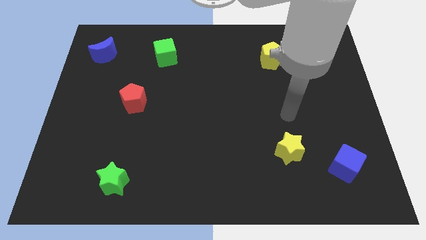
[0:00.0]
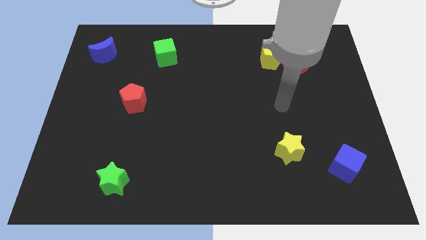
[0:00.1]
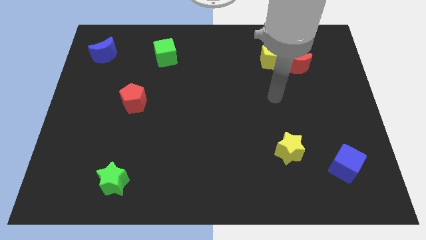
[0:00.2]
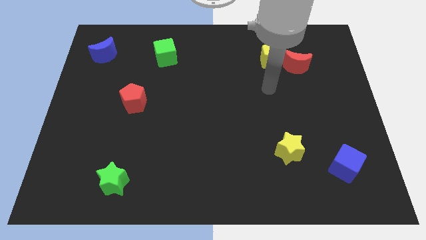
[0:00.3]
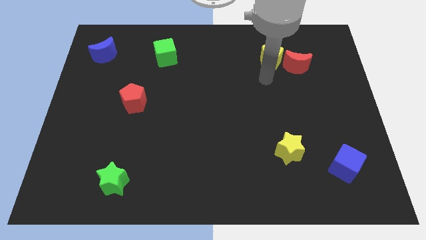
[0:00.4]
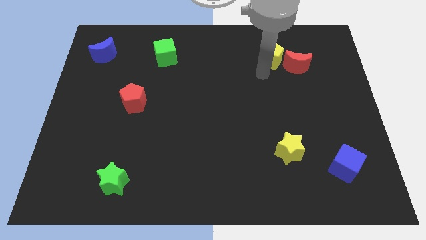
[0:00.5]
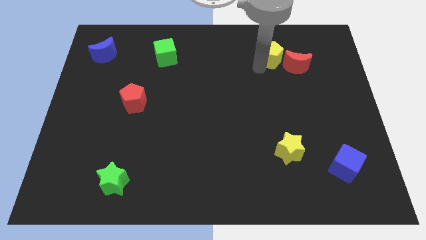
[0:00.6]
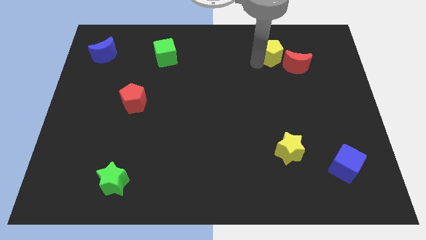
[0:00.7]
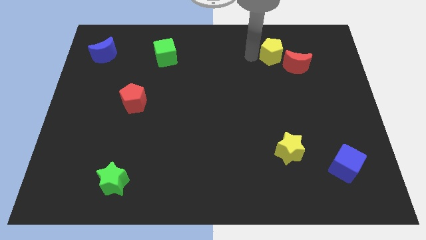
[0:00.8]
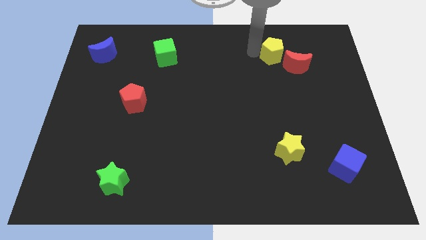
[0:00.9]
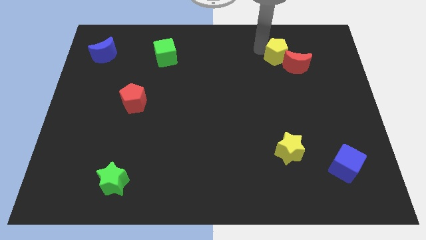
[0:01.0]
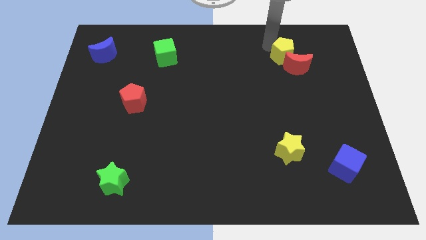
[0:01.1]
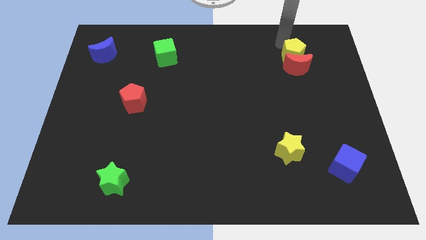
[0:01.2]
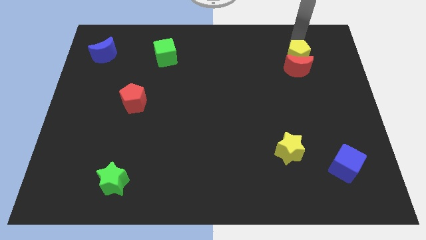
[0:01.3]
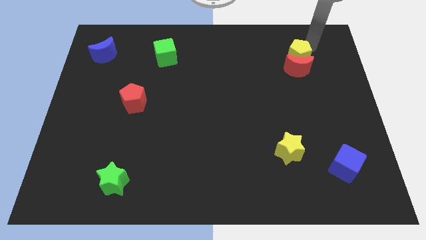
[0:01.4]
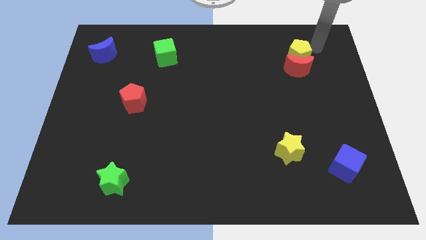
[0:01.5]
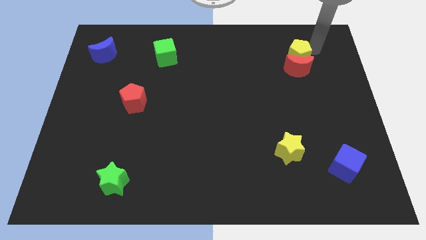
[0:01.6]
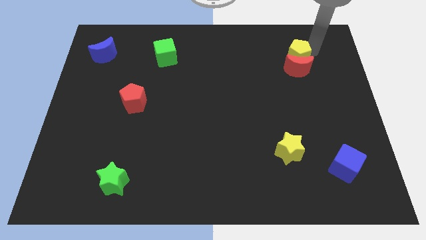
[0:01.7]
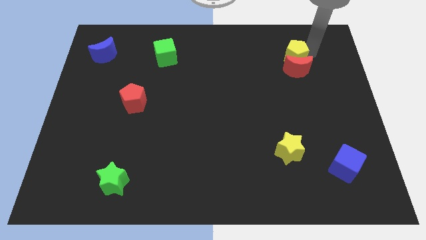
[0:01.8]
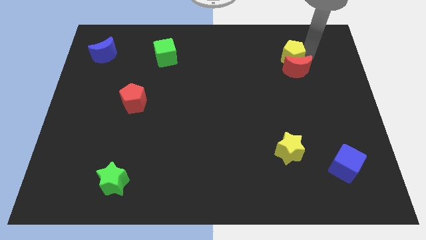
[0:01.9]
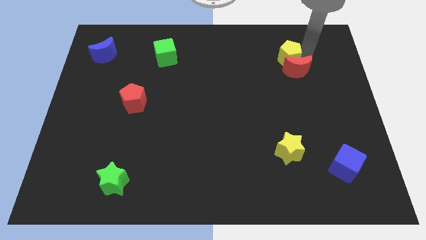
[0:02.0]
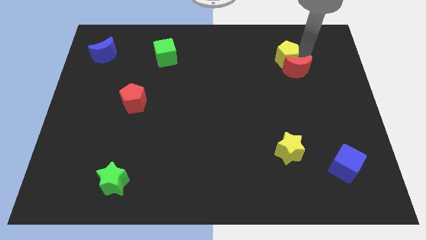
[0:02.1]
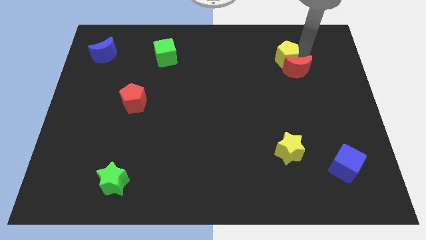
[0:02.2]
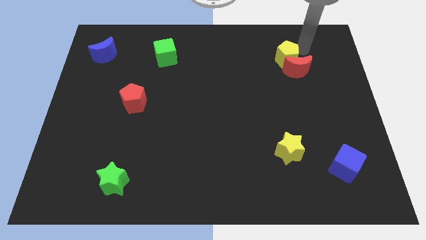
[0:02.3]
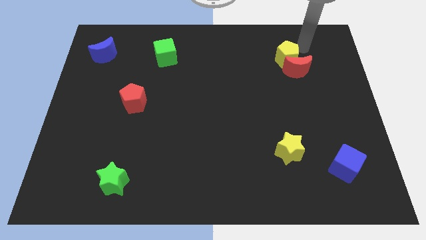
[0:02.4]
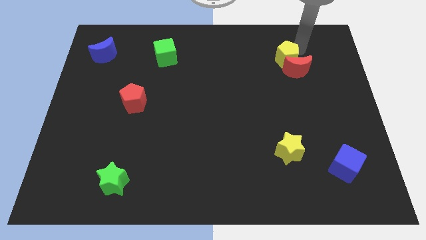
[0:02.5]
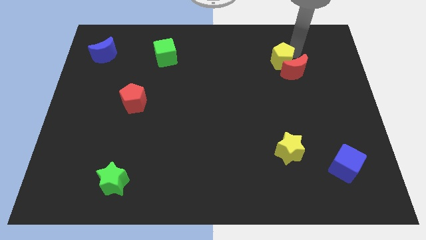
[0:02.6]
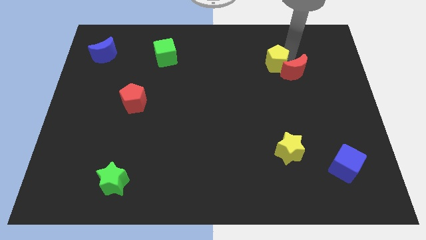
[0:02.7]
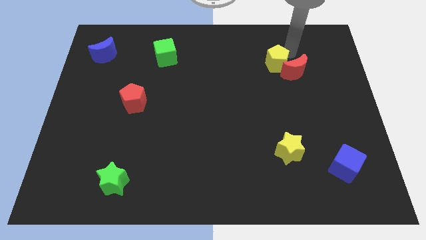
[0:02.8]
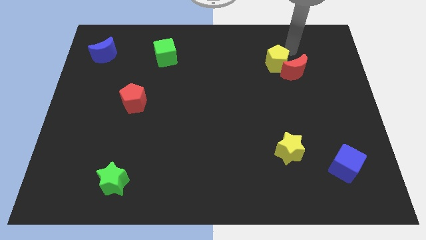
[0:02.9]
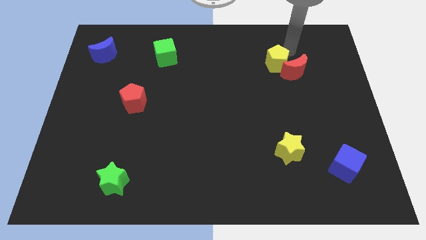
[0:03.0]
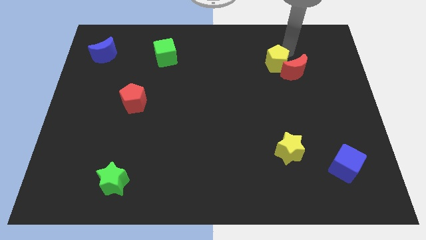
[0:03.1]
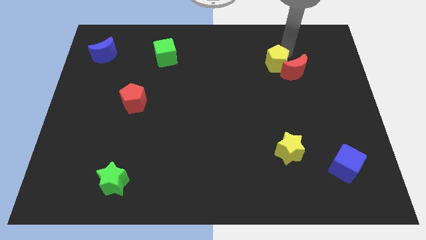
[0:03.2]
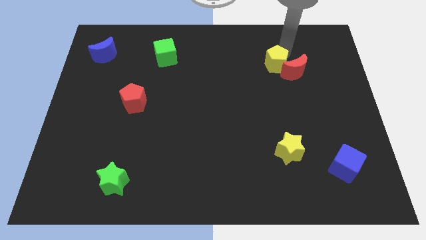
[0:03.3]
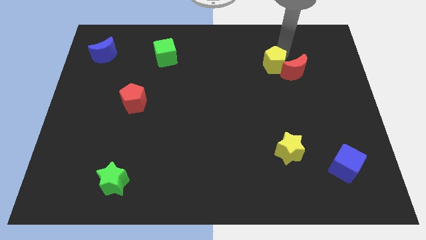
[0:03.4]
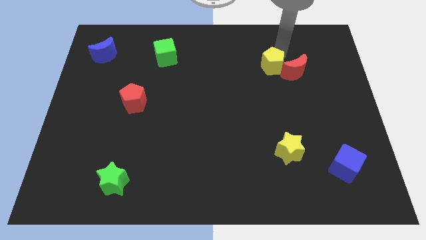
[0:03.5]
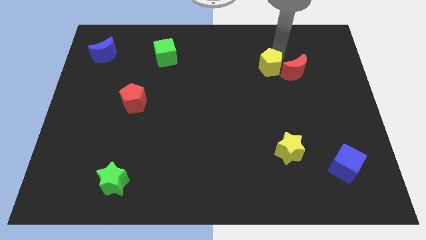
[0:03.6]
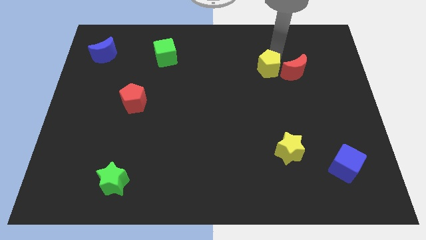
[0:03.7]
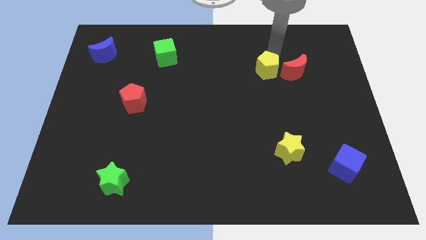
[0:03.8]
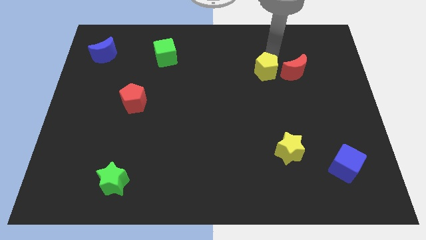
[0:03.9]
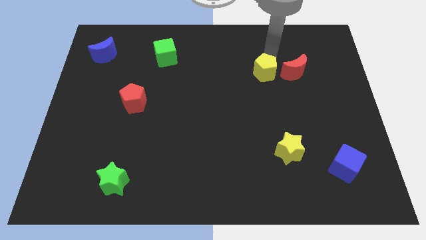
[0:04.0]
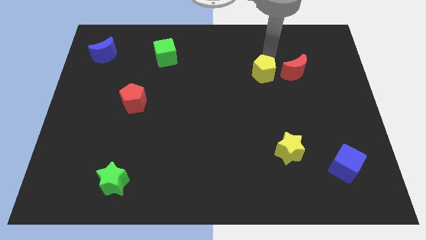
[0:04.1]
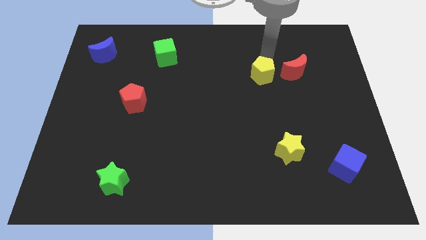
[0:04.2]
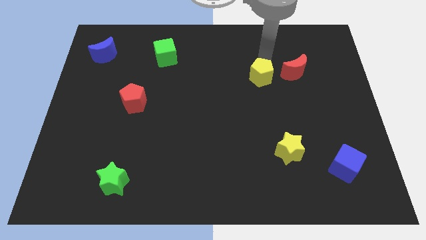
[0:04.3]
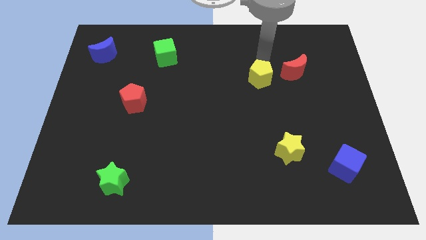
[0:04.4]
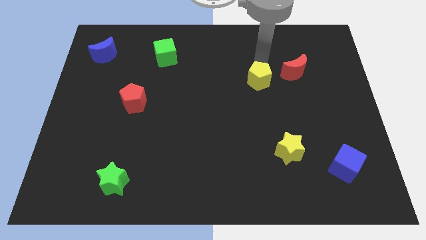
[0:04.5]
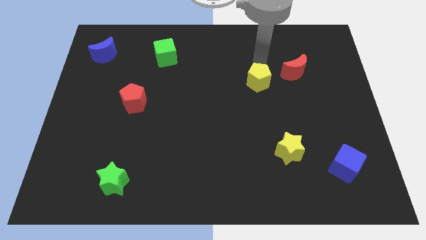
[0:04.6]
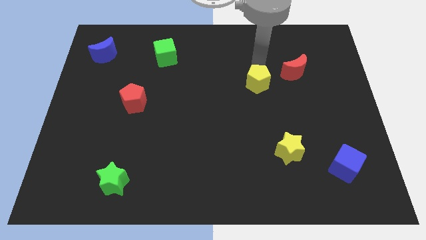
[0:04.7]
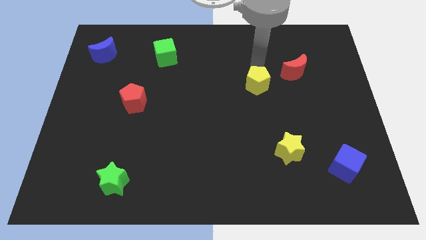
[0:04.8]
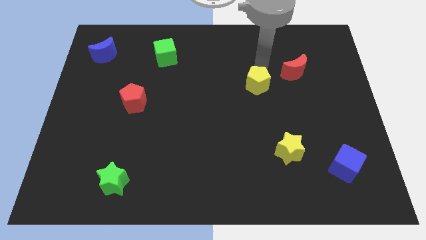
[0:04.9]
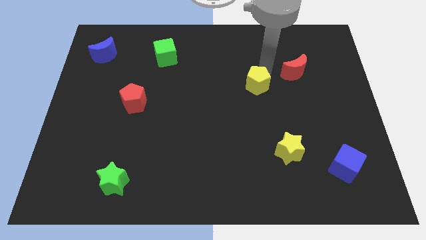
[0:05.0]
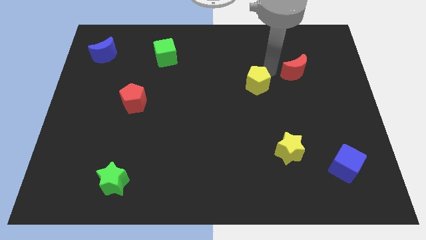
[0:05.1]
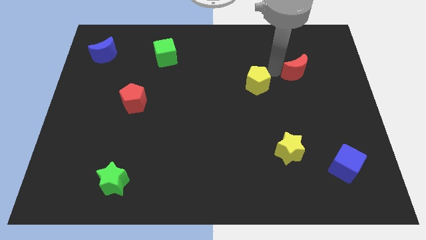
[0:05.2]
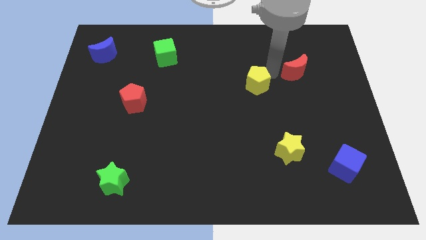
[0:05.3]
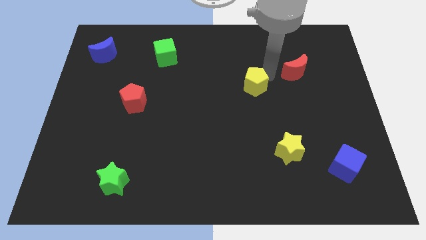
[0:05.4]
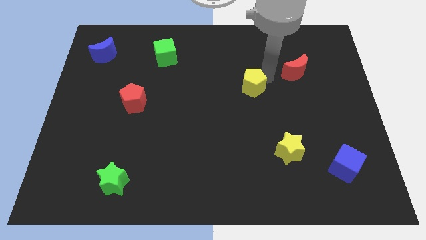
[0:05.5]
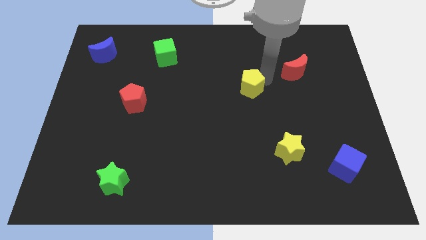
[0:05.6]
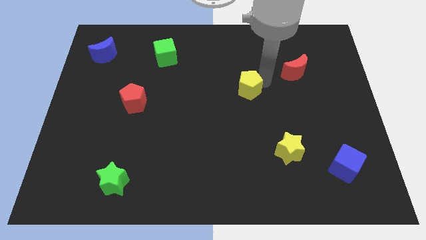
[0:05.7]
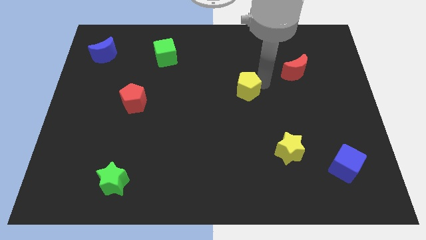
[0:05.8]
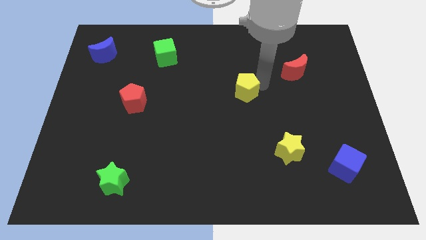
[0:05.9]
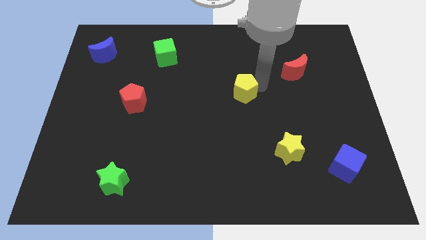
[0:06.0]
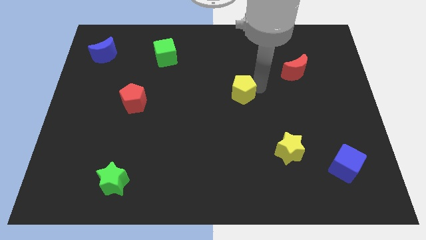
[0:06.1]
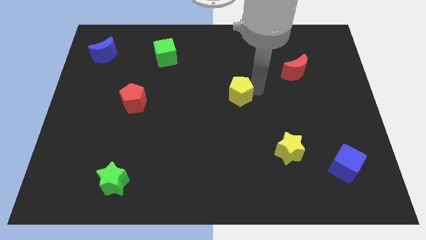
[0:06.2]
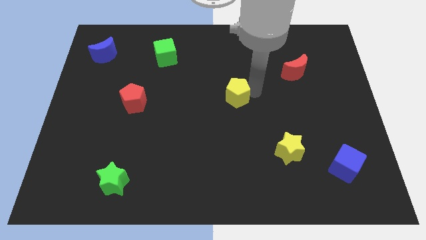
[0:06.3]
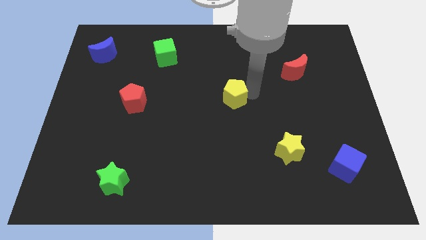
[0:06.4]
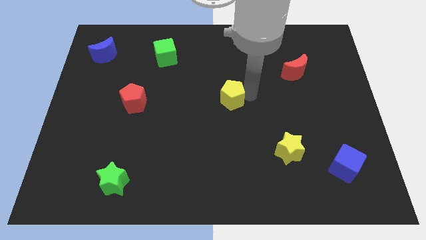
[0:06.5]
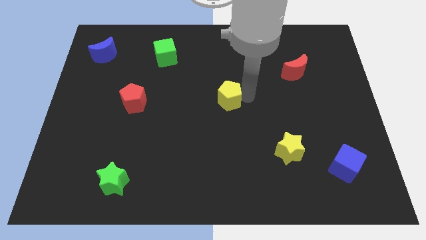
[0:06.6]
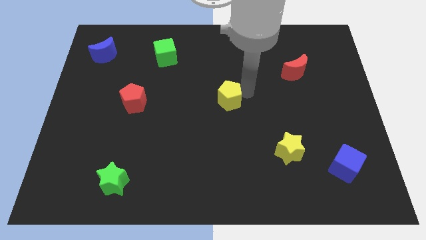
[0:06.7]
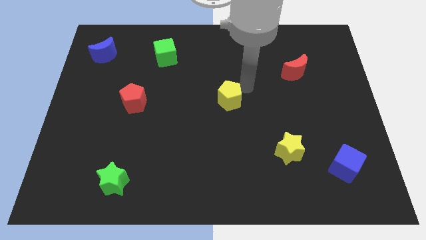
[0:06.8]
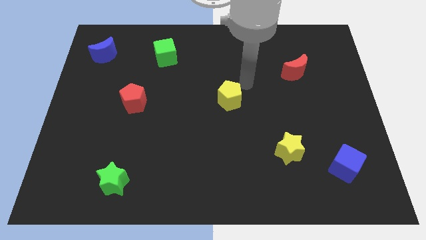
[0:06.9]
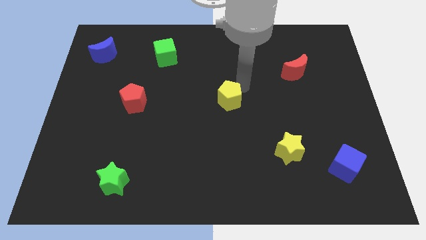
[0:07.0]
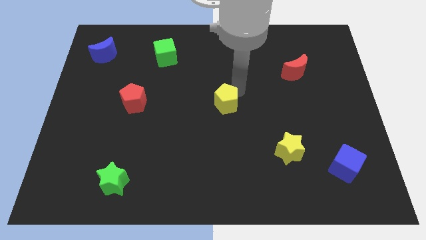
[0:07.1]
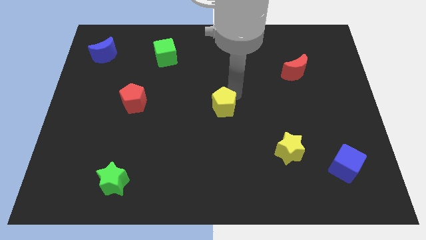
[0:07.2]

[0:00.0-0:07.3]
push the yellow pentagon downwards and then left

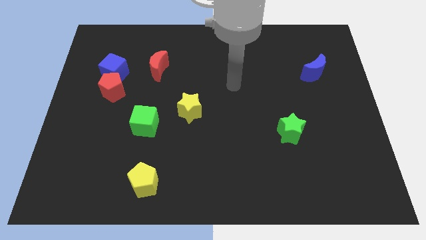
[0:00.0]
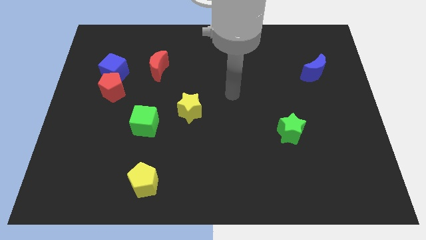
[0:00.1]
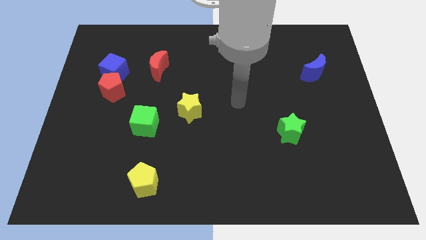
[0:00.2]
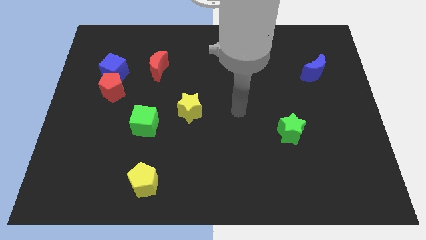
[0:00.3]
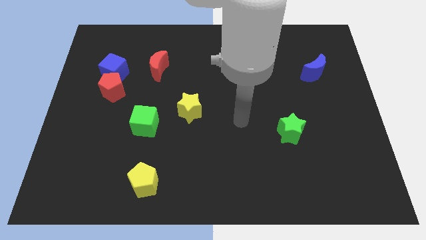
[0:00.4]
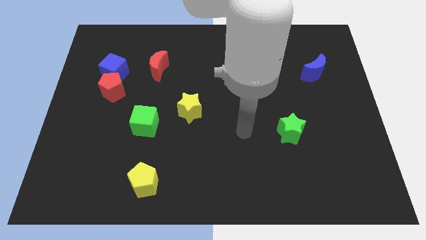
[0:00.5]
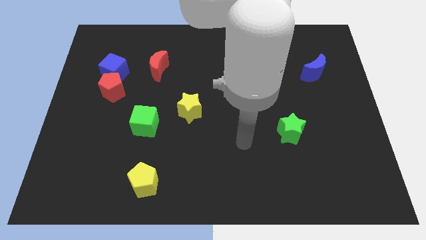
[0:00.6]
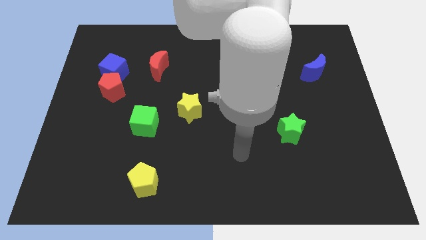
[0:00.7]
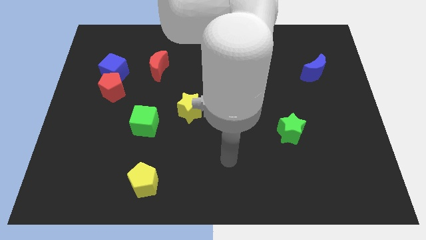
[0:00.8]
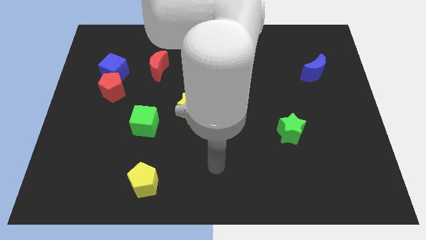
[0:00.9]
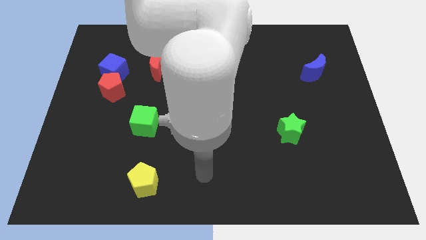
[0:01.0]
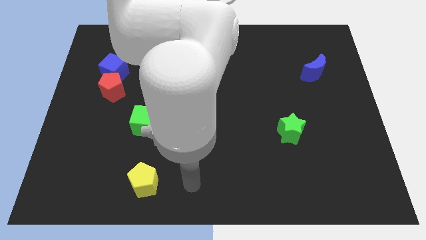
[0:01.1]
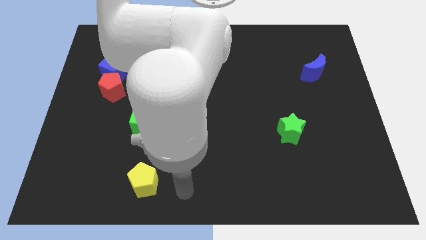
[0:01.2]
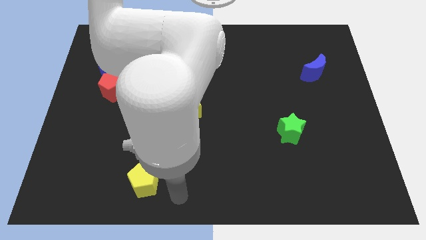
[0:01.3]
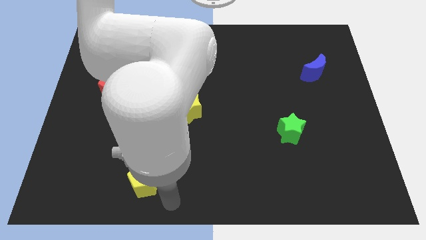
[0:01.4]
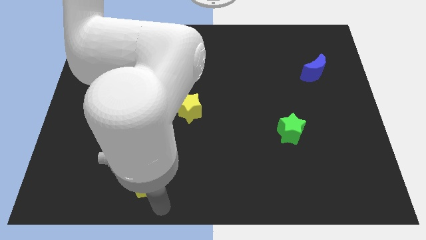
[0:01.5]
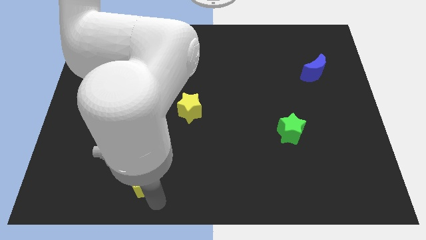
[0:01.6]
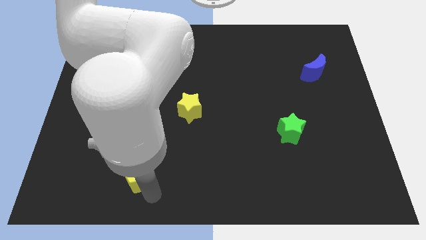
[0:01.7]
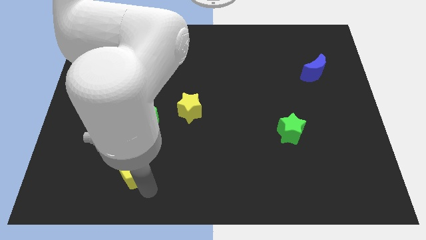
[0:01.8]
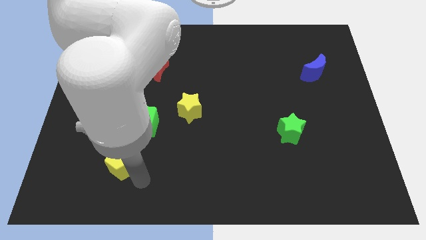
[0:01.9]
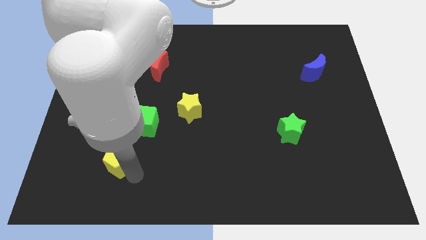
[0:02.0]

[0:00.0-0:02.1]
move the yellow pentagon upwards and then to the left a little bit
